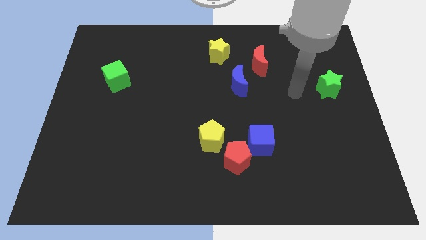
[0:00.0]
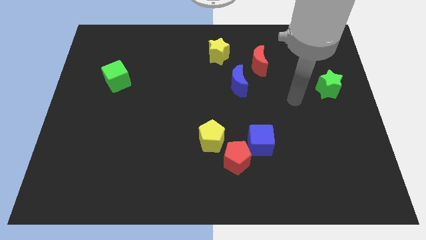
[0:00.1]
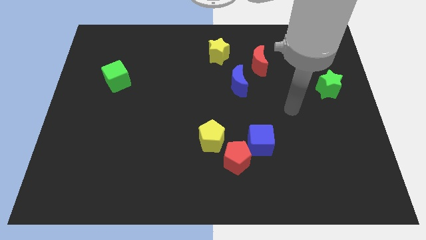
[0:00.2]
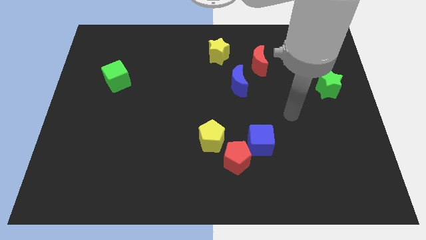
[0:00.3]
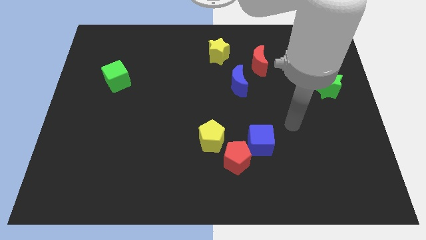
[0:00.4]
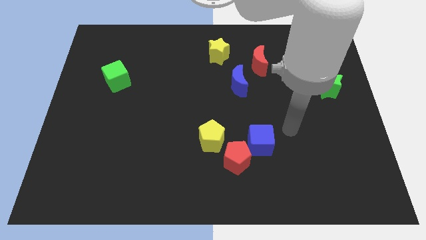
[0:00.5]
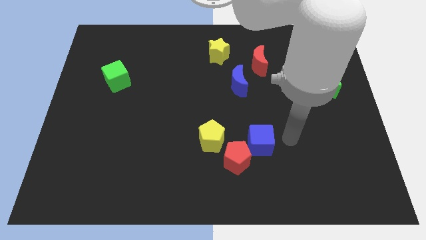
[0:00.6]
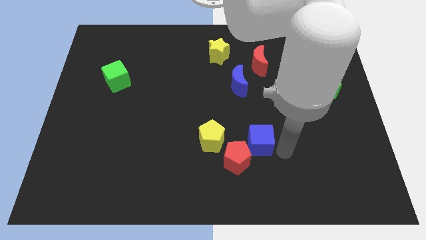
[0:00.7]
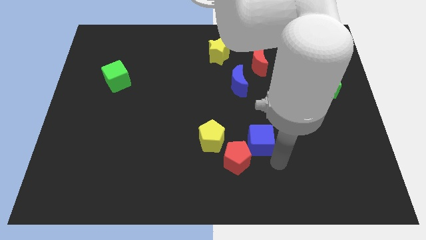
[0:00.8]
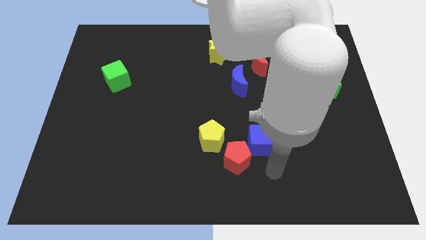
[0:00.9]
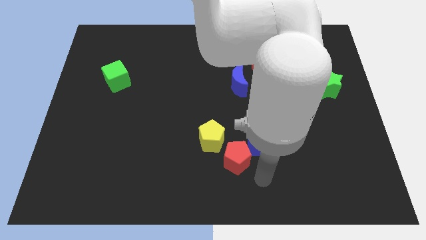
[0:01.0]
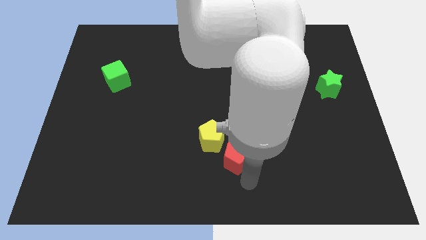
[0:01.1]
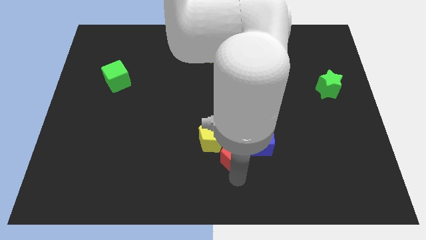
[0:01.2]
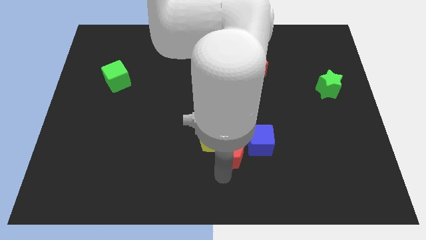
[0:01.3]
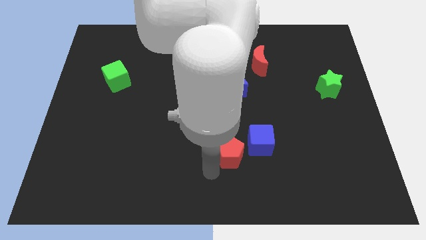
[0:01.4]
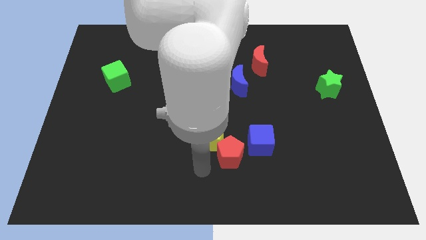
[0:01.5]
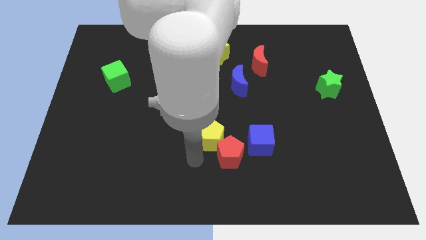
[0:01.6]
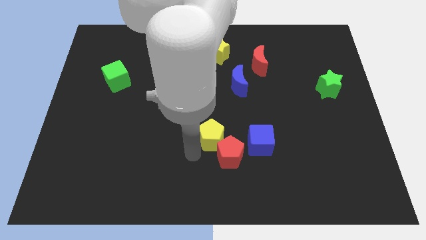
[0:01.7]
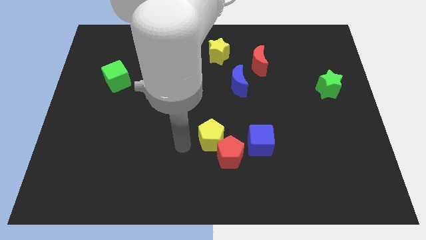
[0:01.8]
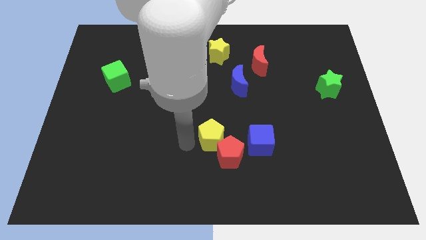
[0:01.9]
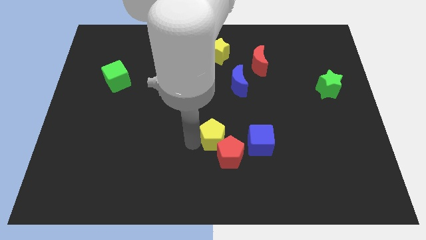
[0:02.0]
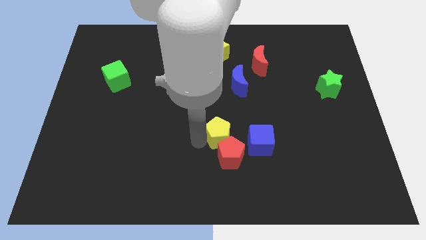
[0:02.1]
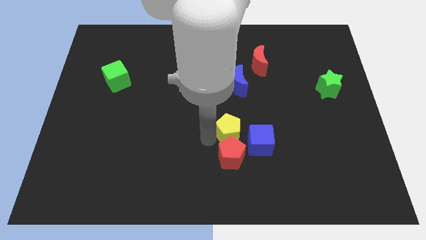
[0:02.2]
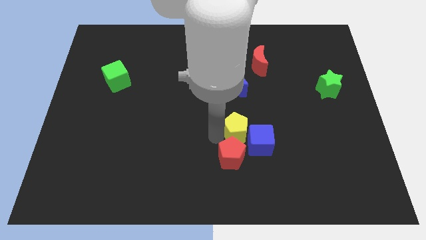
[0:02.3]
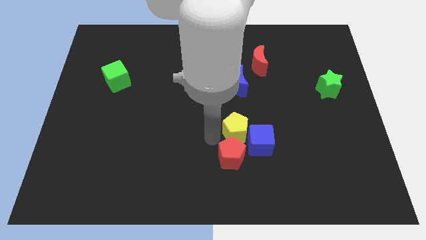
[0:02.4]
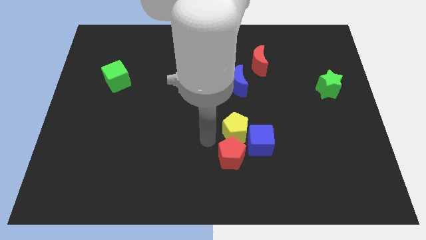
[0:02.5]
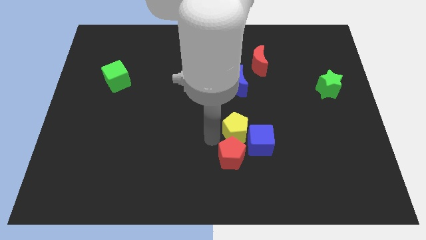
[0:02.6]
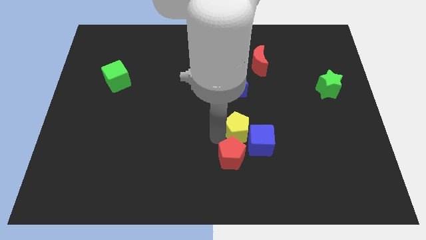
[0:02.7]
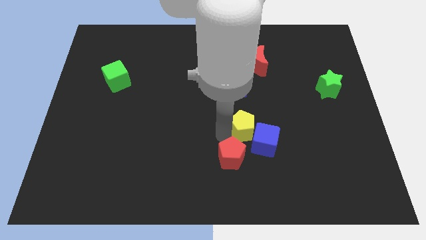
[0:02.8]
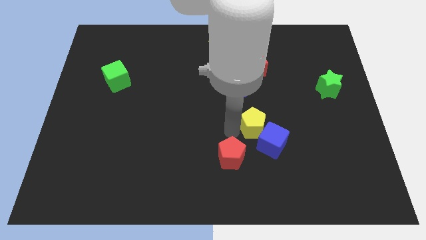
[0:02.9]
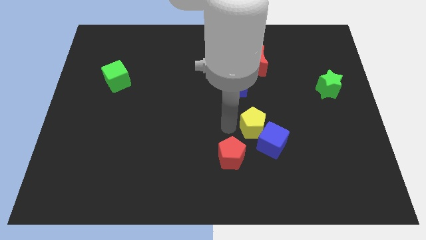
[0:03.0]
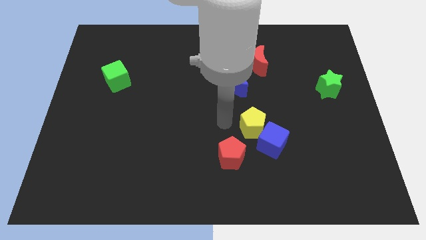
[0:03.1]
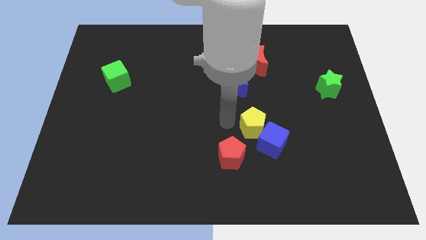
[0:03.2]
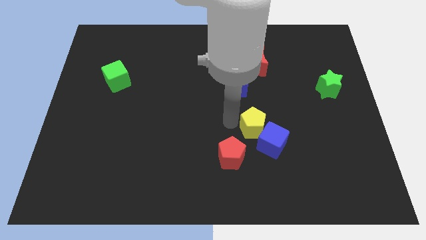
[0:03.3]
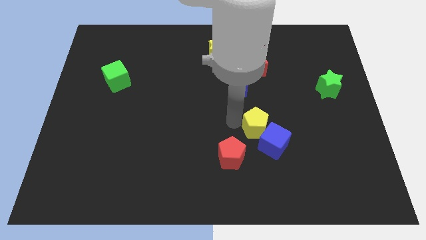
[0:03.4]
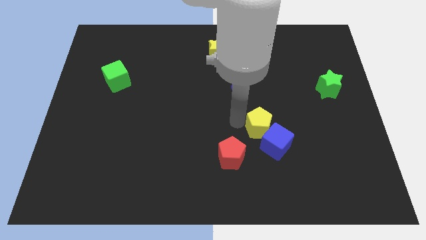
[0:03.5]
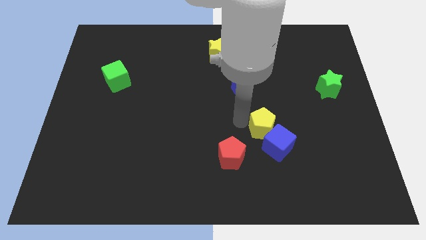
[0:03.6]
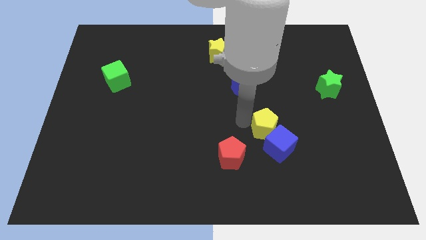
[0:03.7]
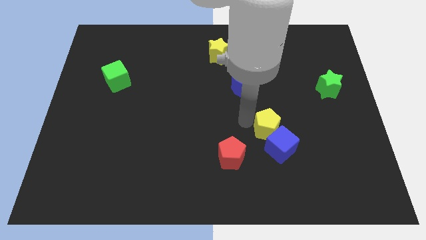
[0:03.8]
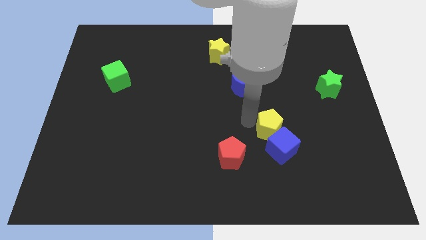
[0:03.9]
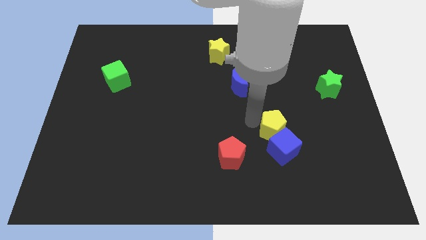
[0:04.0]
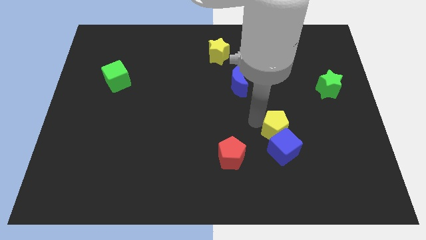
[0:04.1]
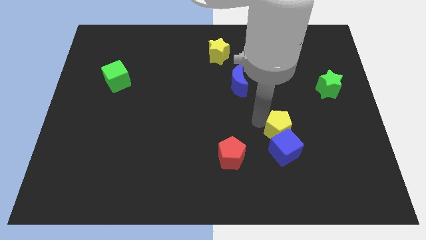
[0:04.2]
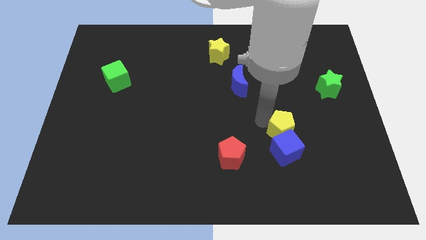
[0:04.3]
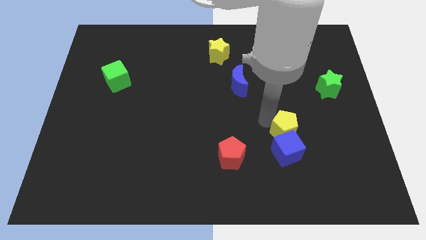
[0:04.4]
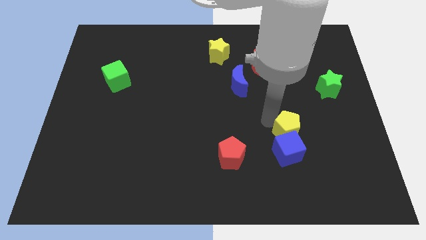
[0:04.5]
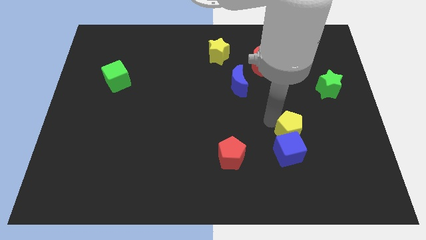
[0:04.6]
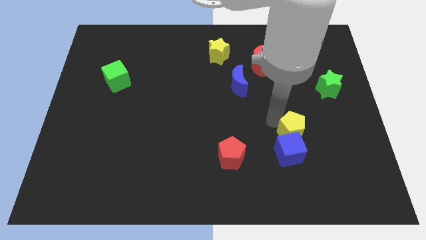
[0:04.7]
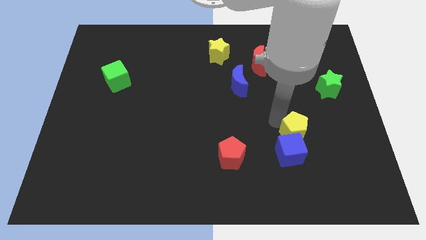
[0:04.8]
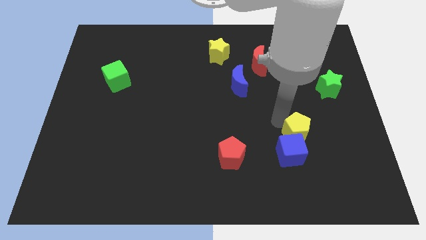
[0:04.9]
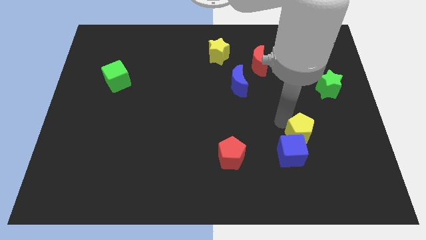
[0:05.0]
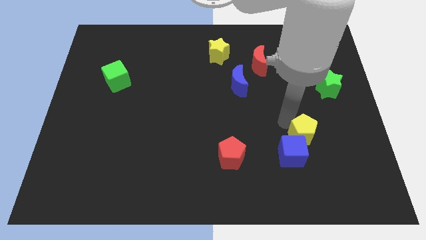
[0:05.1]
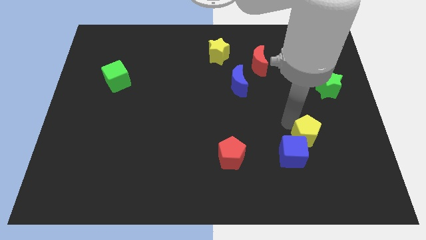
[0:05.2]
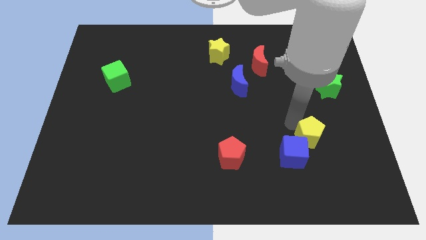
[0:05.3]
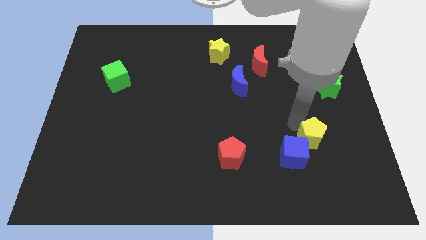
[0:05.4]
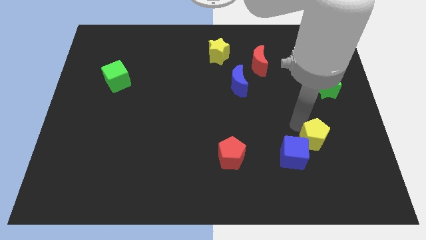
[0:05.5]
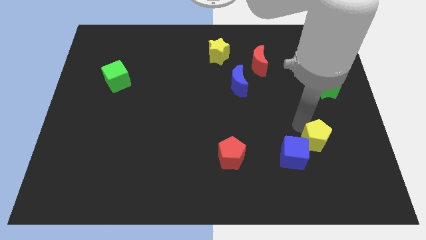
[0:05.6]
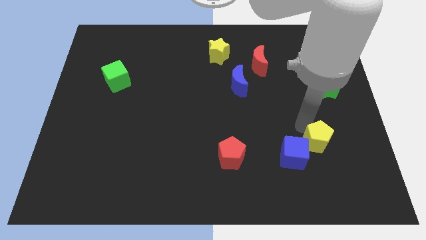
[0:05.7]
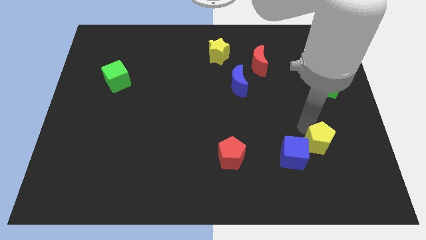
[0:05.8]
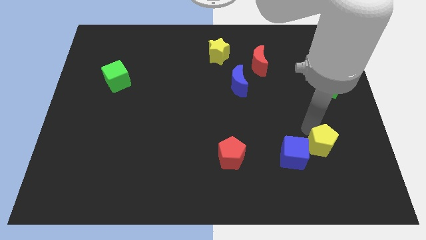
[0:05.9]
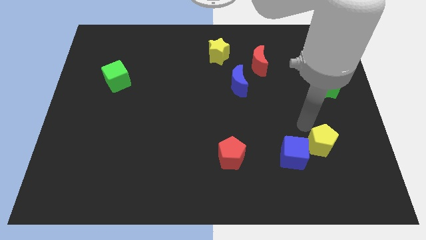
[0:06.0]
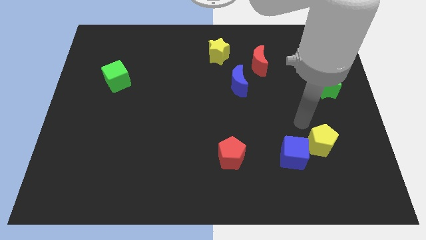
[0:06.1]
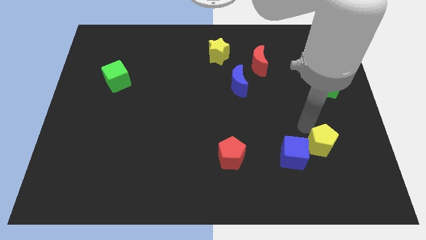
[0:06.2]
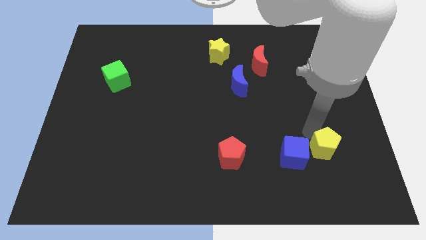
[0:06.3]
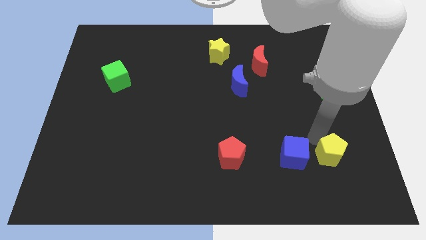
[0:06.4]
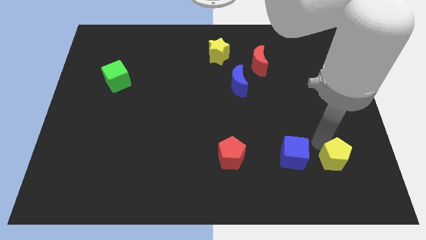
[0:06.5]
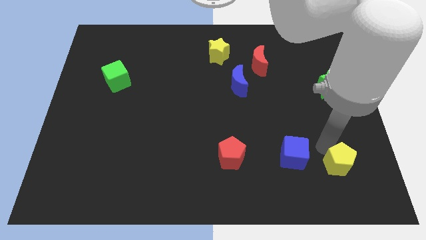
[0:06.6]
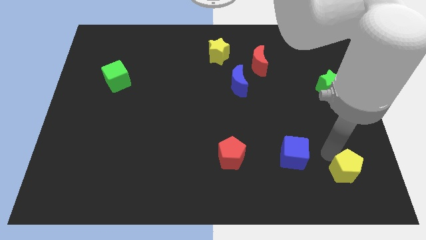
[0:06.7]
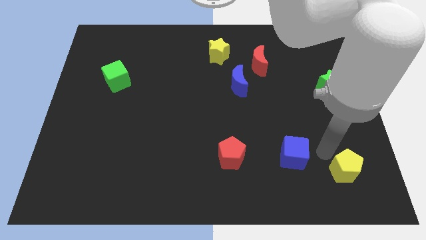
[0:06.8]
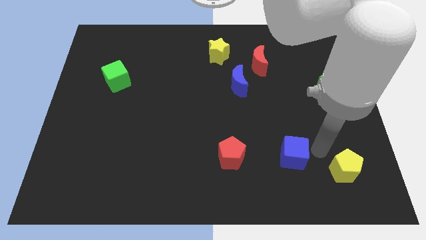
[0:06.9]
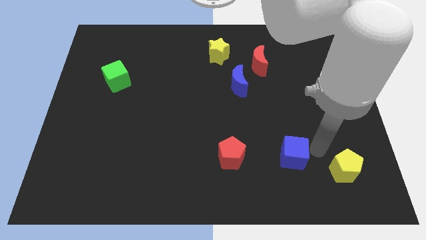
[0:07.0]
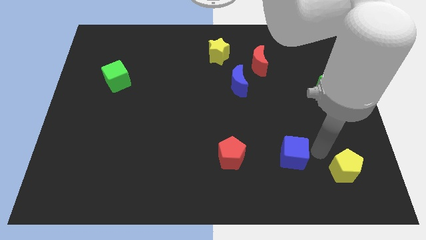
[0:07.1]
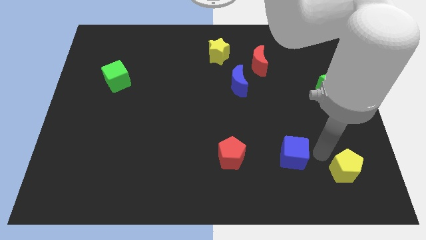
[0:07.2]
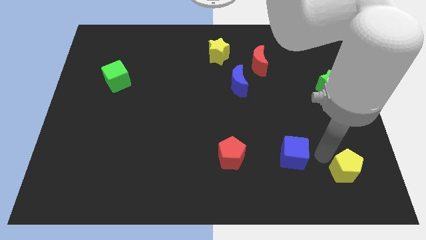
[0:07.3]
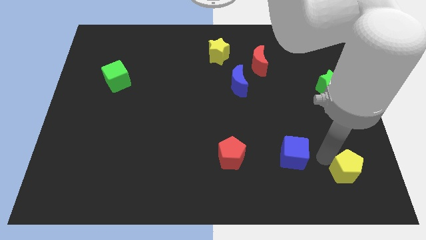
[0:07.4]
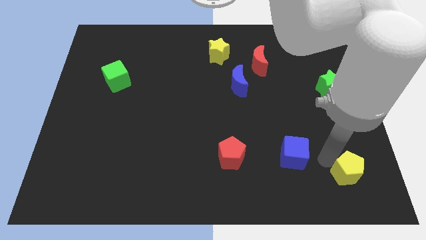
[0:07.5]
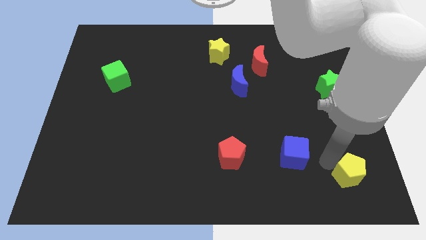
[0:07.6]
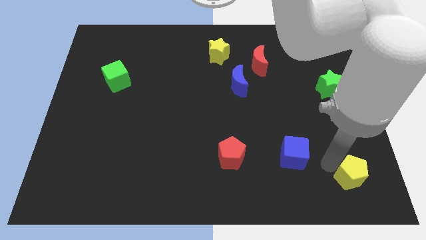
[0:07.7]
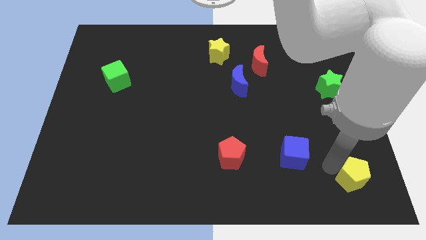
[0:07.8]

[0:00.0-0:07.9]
put the yellow pentagon to the bottom right
